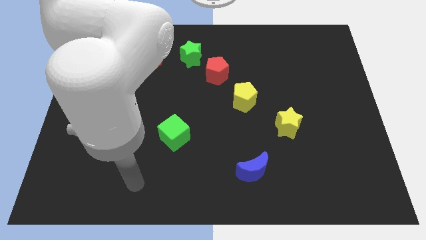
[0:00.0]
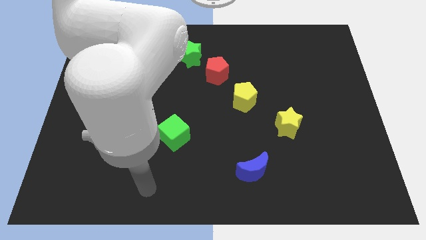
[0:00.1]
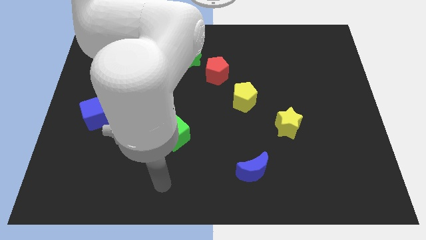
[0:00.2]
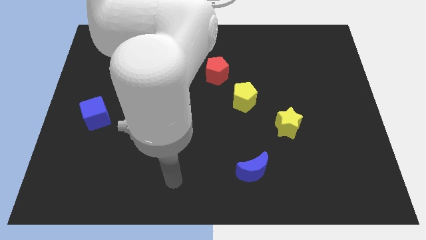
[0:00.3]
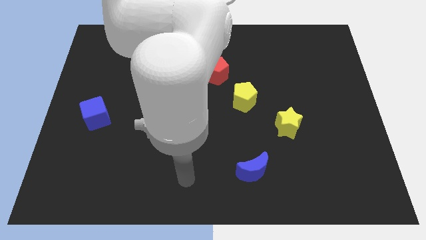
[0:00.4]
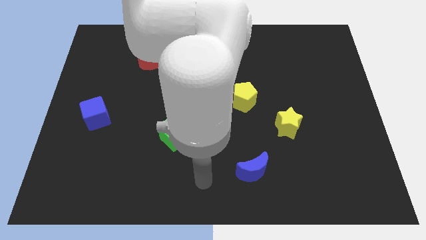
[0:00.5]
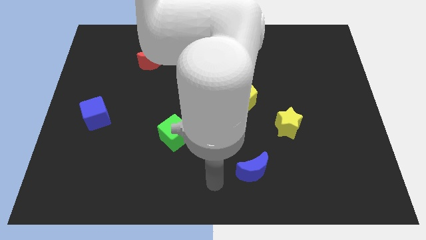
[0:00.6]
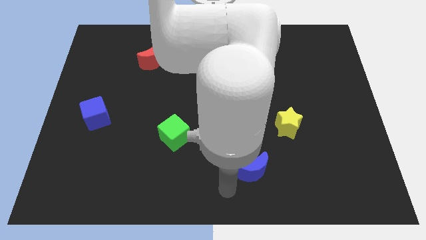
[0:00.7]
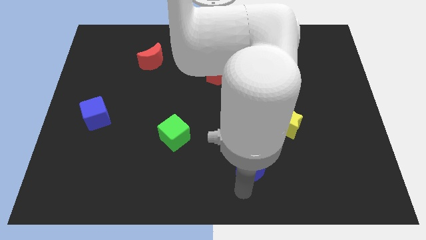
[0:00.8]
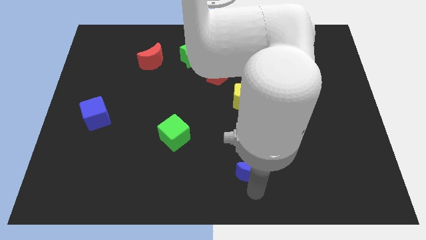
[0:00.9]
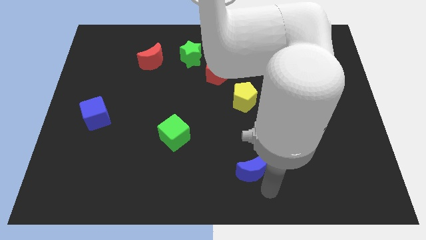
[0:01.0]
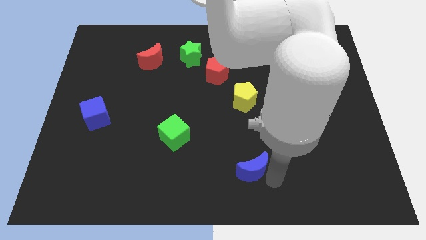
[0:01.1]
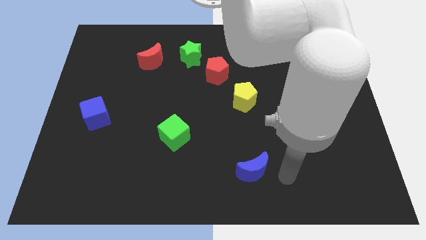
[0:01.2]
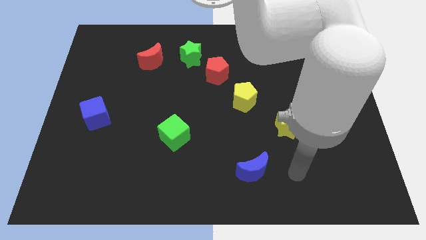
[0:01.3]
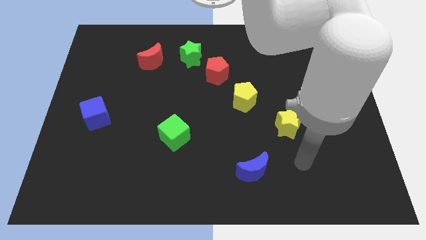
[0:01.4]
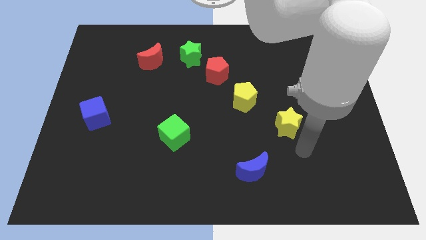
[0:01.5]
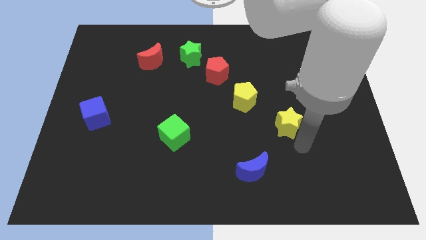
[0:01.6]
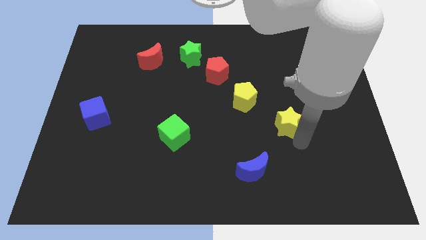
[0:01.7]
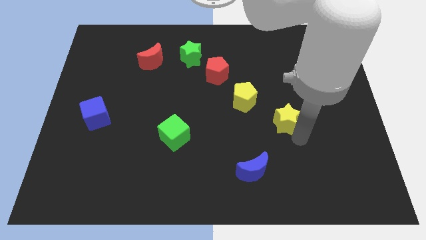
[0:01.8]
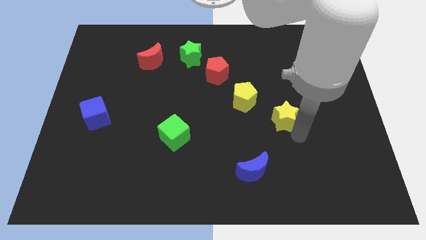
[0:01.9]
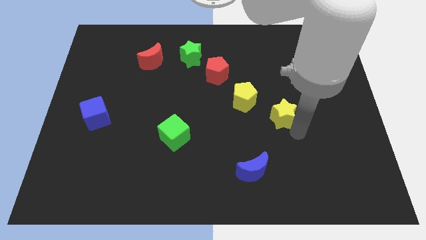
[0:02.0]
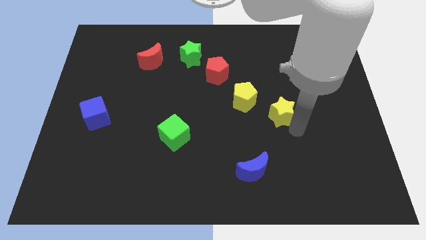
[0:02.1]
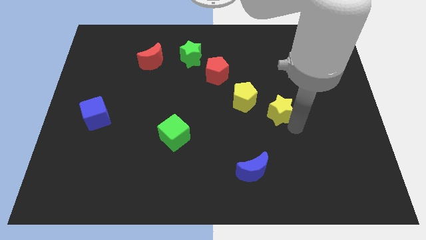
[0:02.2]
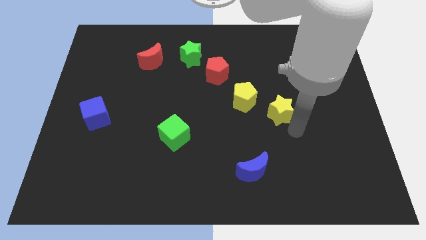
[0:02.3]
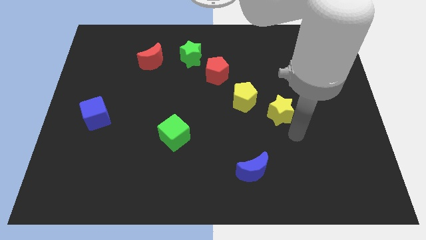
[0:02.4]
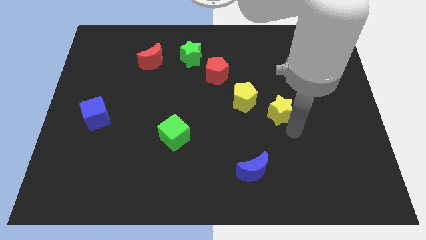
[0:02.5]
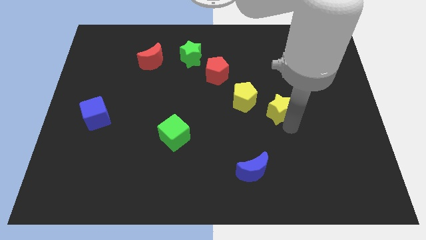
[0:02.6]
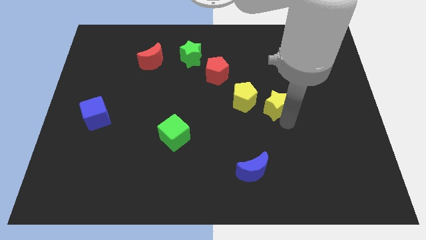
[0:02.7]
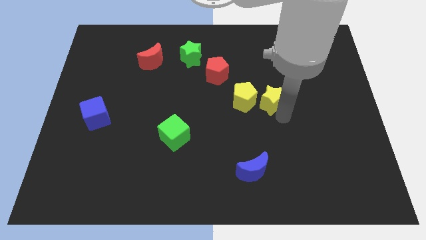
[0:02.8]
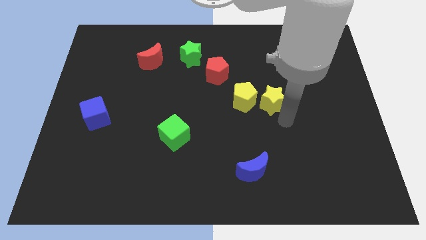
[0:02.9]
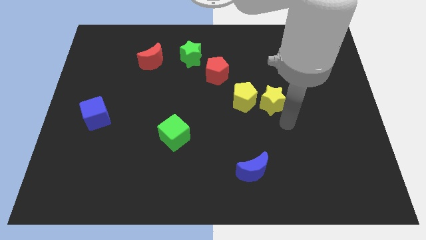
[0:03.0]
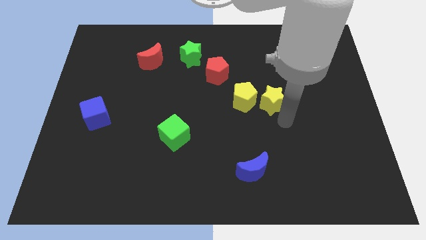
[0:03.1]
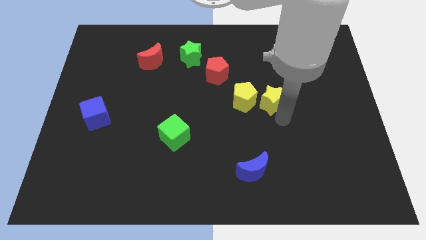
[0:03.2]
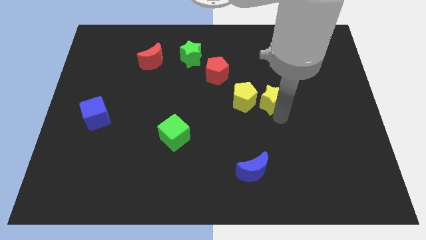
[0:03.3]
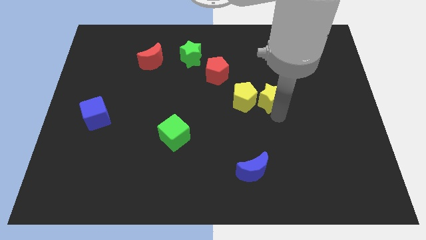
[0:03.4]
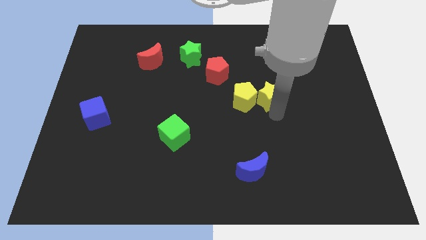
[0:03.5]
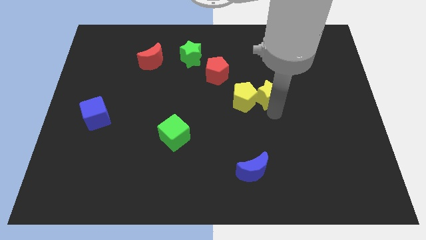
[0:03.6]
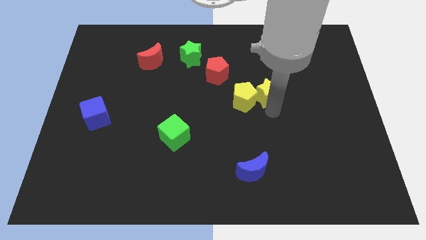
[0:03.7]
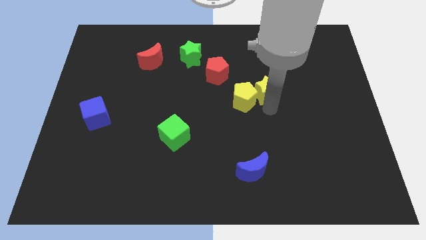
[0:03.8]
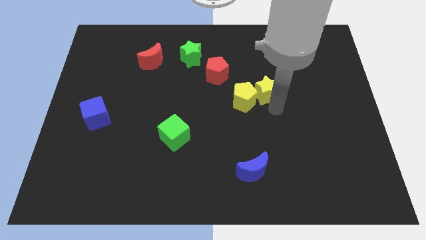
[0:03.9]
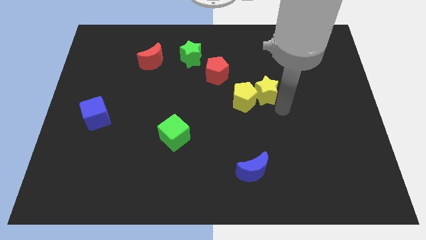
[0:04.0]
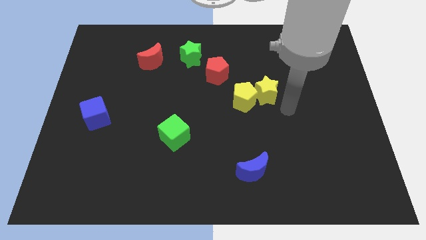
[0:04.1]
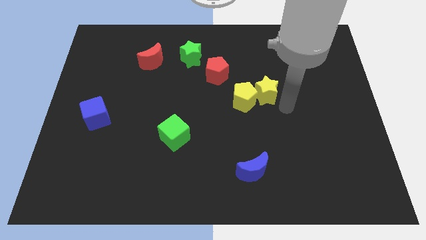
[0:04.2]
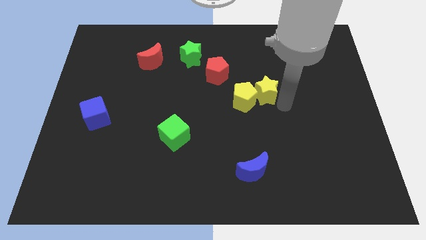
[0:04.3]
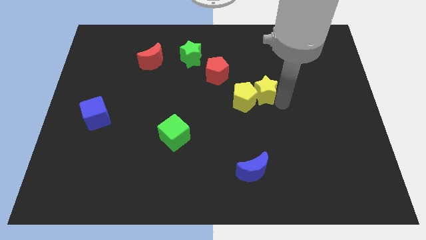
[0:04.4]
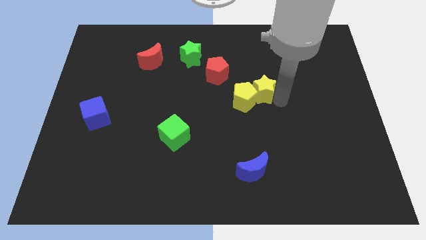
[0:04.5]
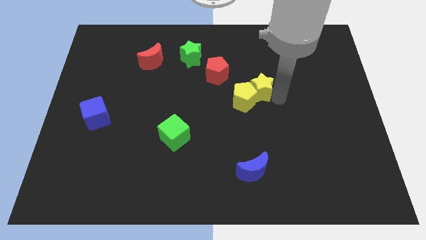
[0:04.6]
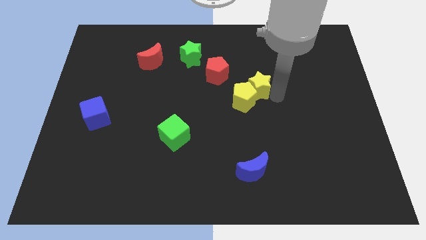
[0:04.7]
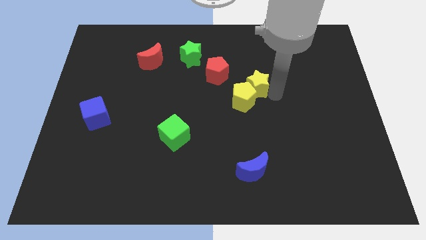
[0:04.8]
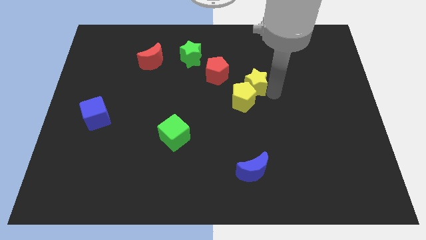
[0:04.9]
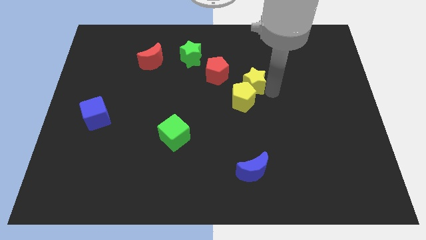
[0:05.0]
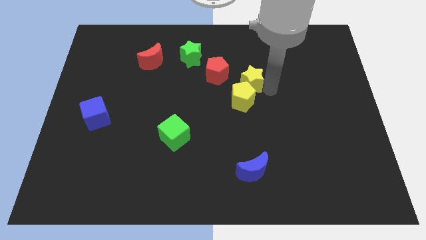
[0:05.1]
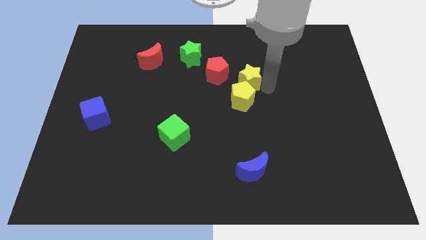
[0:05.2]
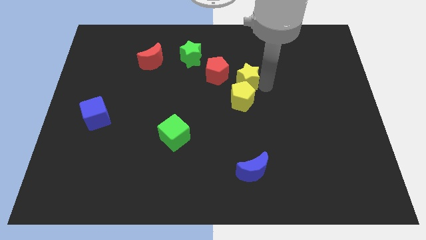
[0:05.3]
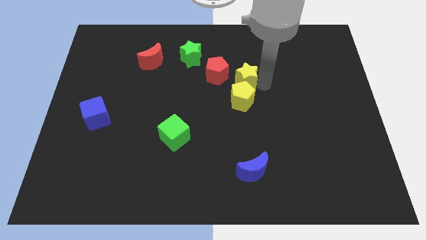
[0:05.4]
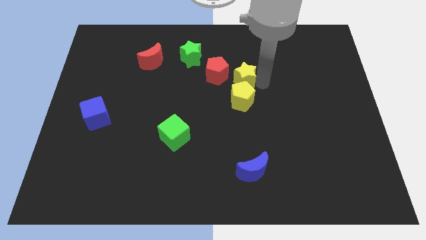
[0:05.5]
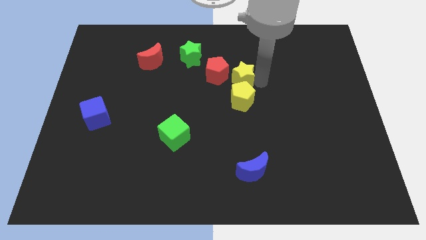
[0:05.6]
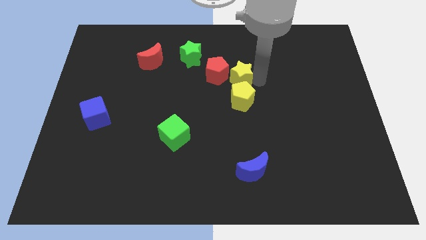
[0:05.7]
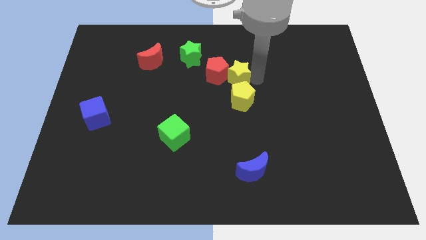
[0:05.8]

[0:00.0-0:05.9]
slide the yellow star close to the red pentagon

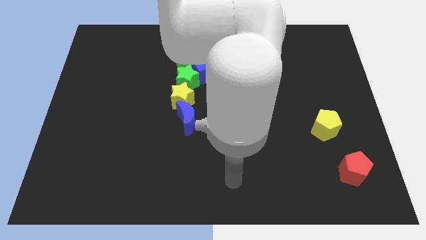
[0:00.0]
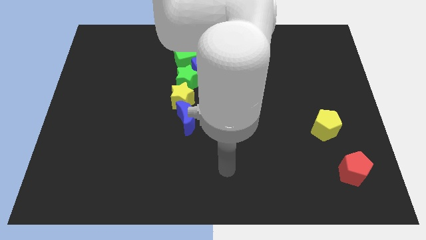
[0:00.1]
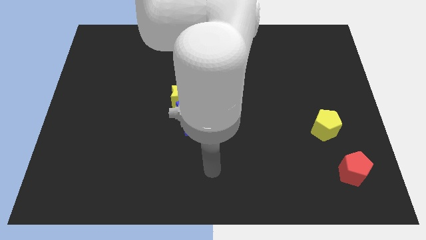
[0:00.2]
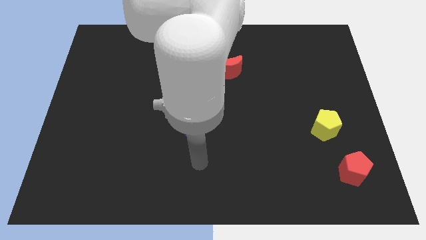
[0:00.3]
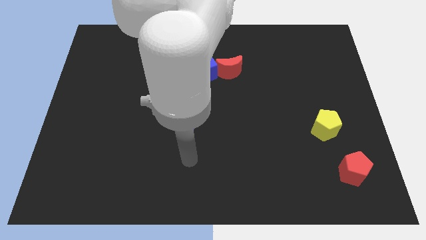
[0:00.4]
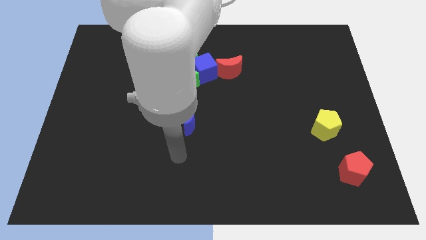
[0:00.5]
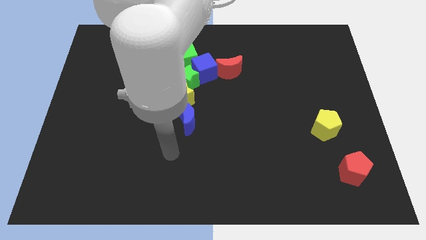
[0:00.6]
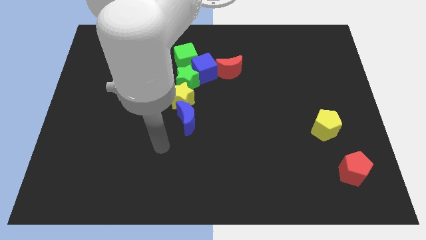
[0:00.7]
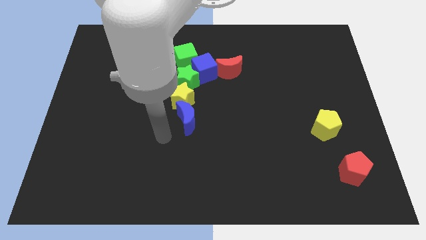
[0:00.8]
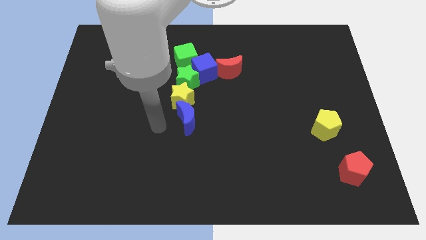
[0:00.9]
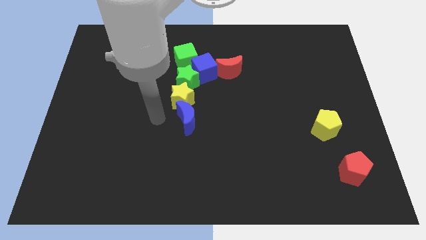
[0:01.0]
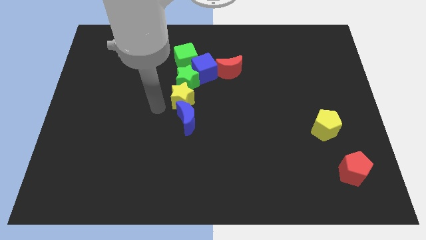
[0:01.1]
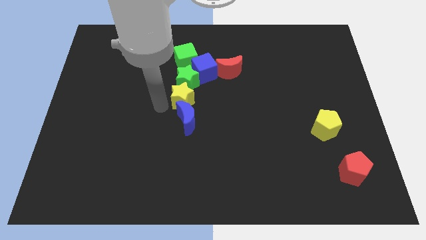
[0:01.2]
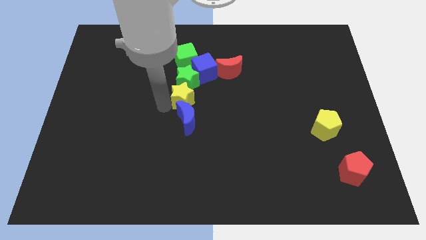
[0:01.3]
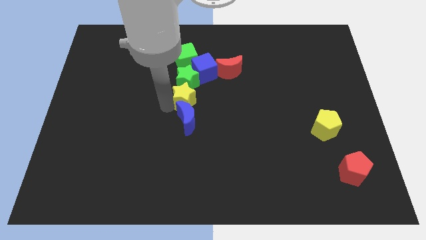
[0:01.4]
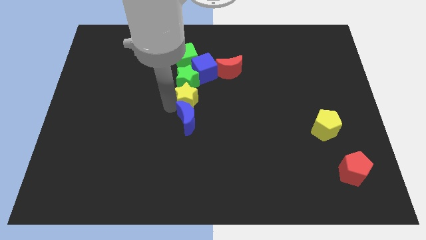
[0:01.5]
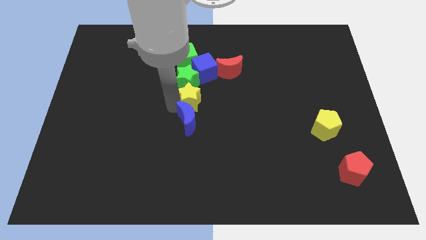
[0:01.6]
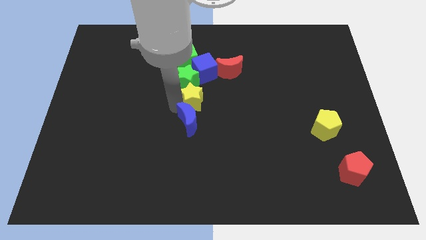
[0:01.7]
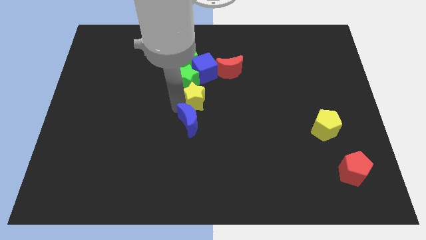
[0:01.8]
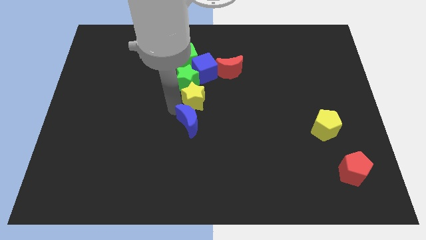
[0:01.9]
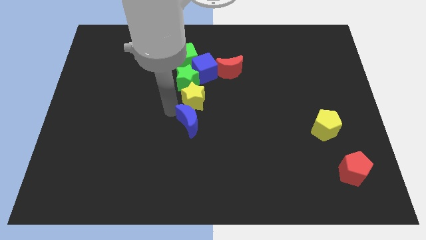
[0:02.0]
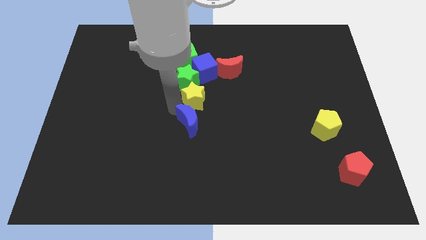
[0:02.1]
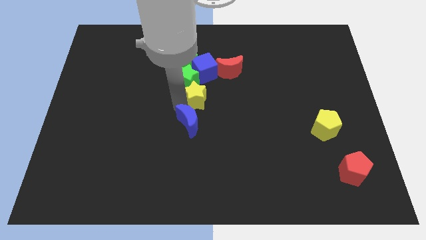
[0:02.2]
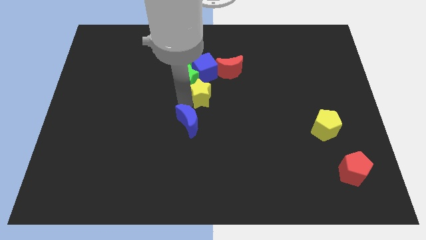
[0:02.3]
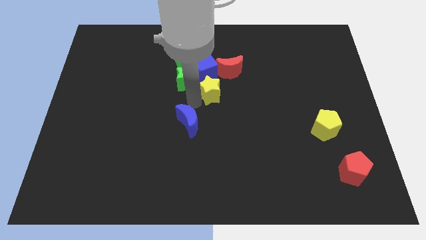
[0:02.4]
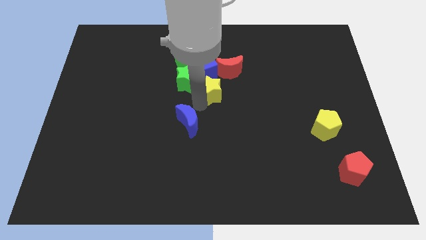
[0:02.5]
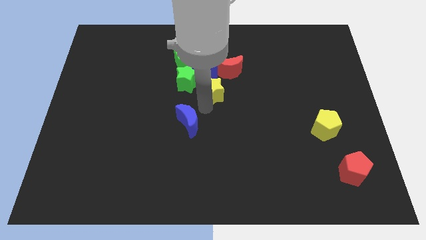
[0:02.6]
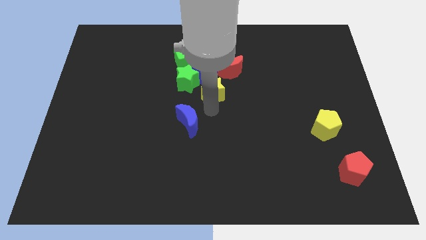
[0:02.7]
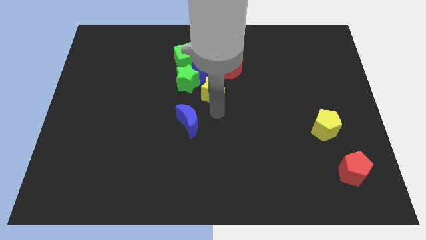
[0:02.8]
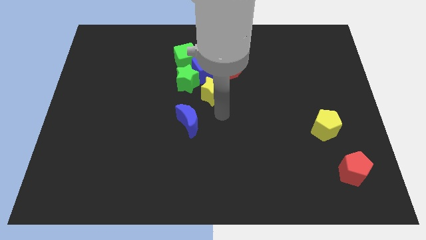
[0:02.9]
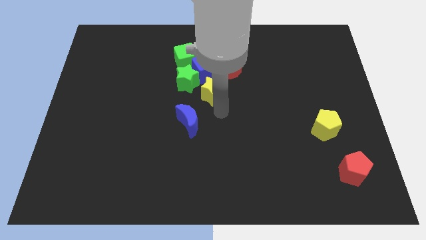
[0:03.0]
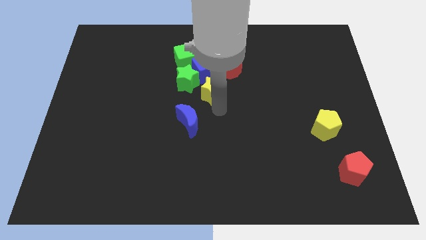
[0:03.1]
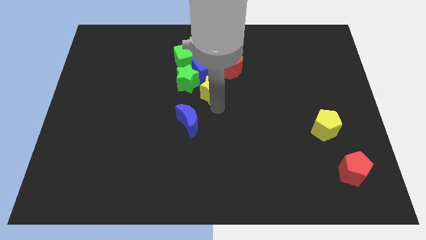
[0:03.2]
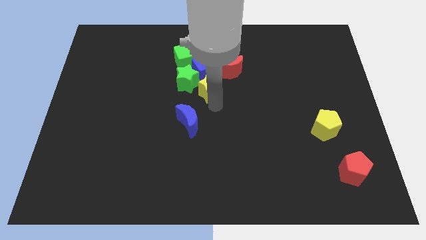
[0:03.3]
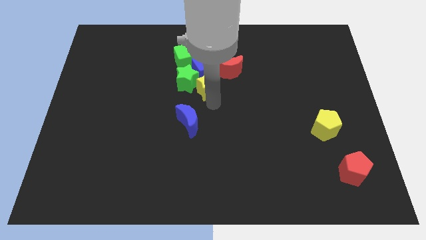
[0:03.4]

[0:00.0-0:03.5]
slide the yellow star next to the blue cube
